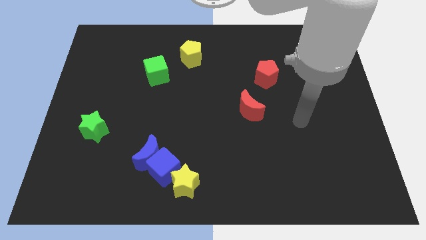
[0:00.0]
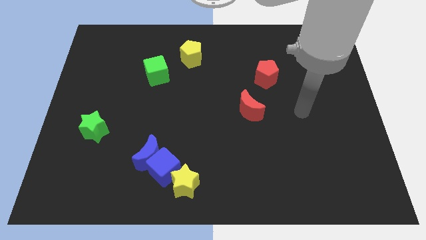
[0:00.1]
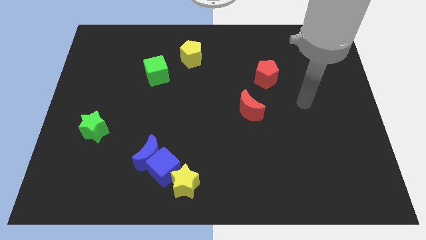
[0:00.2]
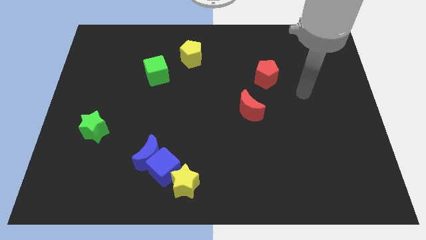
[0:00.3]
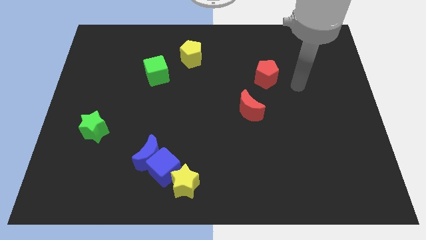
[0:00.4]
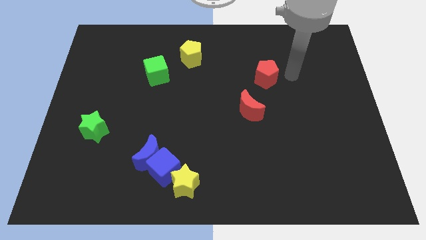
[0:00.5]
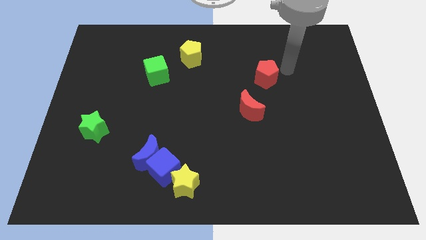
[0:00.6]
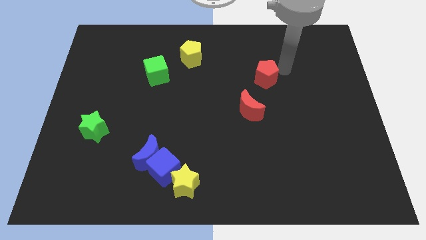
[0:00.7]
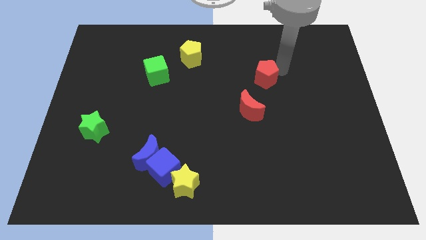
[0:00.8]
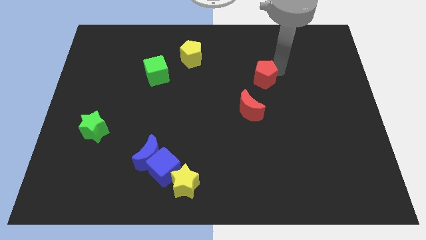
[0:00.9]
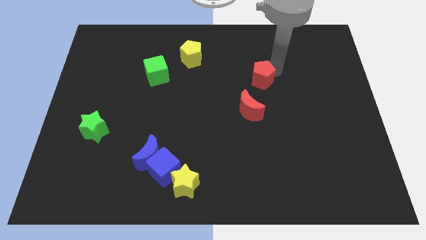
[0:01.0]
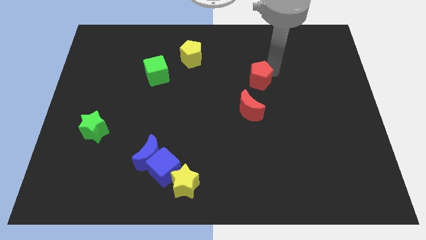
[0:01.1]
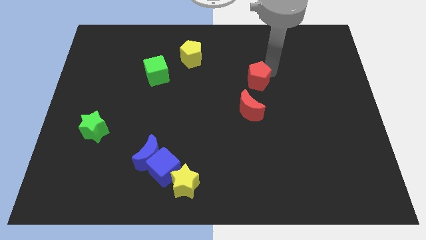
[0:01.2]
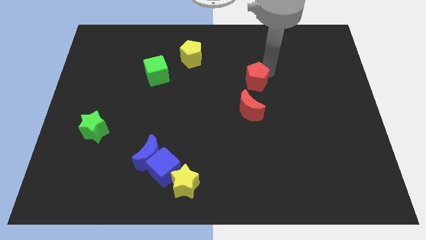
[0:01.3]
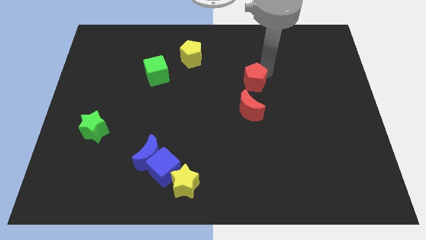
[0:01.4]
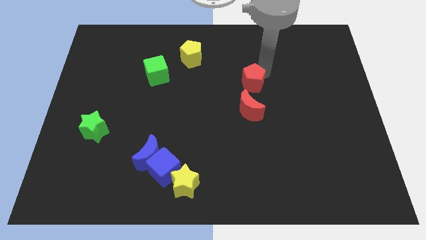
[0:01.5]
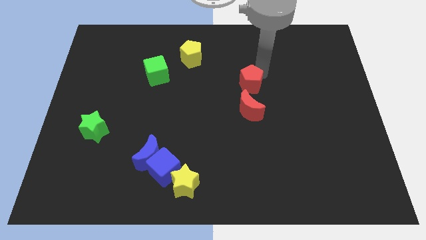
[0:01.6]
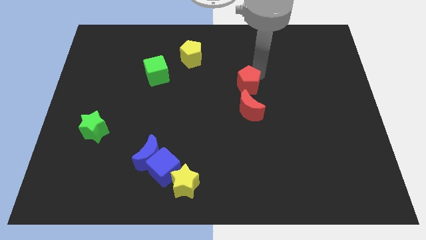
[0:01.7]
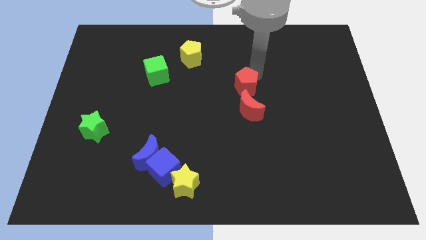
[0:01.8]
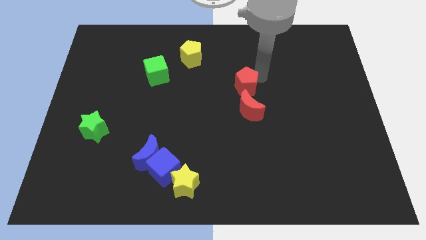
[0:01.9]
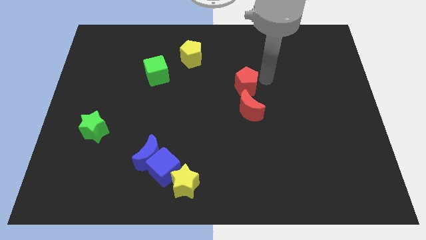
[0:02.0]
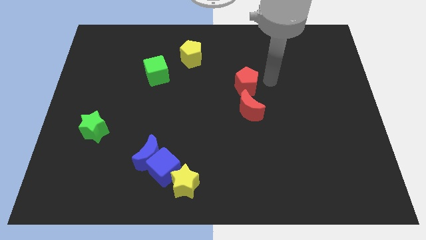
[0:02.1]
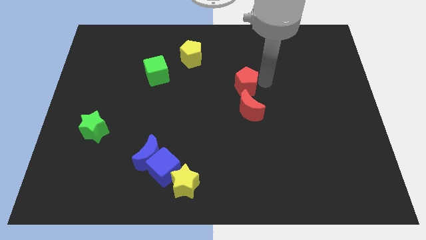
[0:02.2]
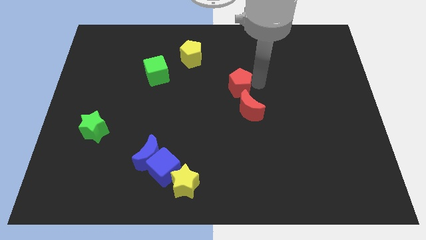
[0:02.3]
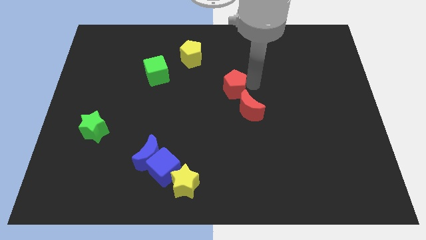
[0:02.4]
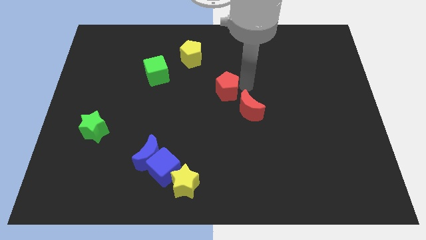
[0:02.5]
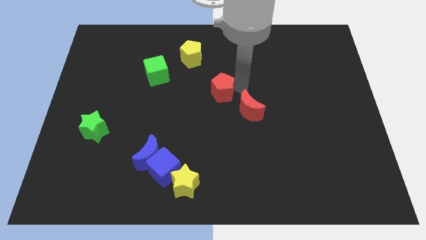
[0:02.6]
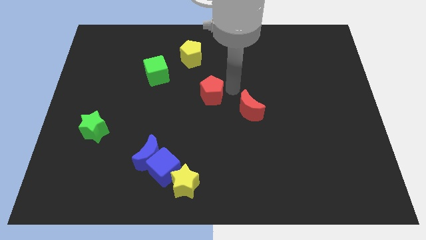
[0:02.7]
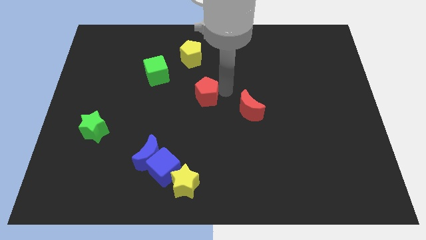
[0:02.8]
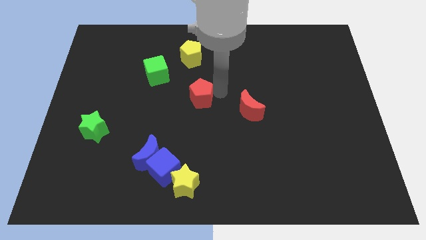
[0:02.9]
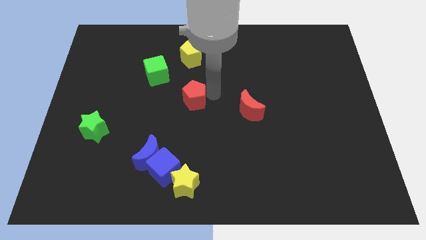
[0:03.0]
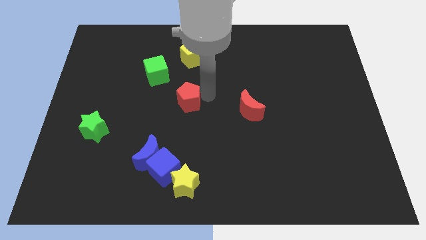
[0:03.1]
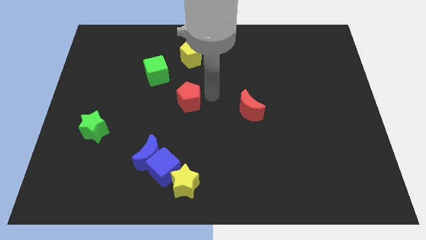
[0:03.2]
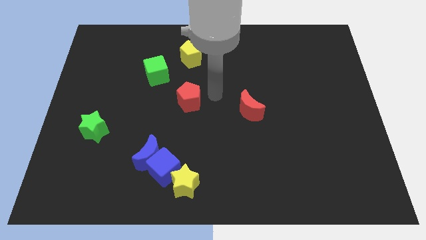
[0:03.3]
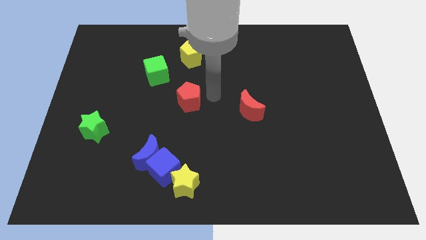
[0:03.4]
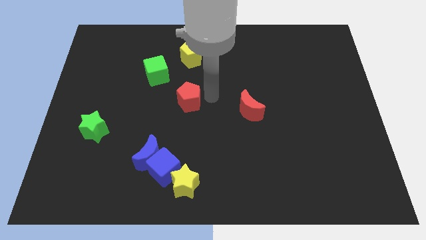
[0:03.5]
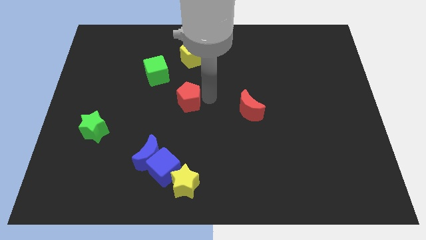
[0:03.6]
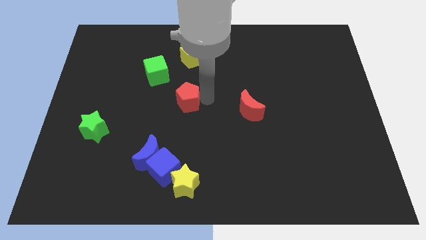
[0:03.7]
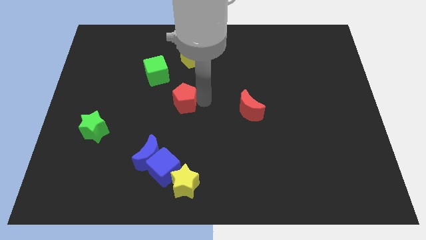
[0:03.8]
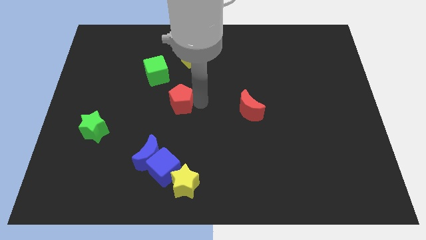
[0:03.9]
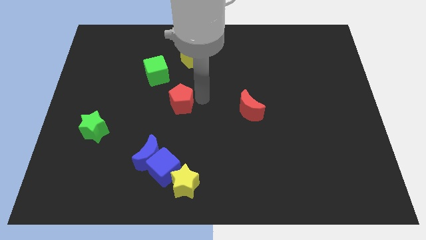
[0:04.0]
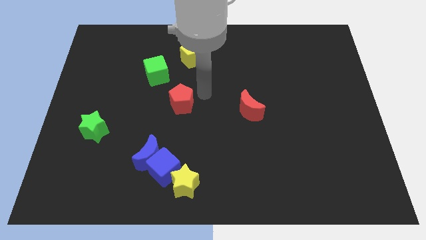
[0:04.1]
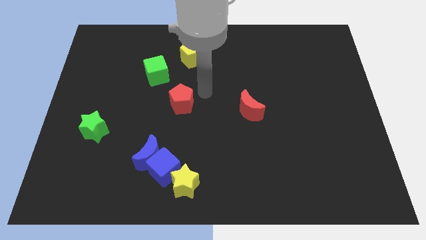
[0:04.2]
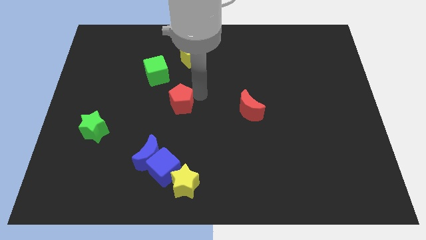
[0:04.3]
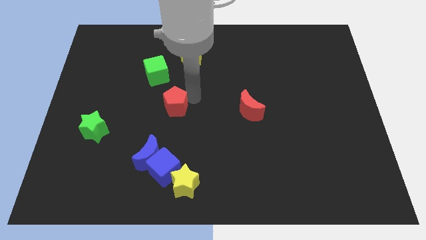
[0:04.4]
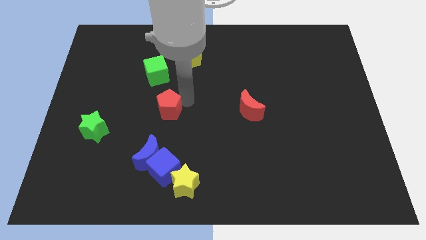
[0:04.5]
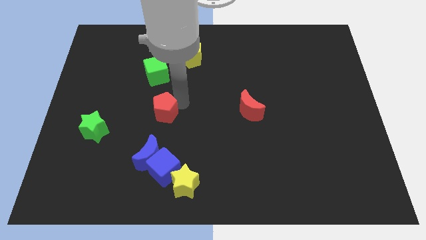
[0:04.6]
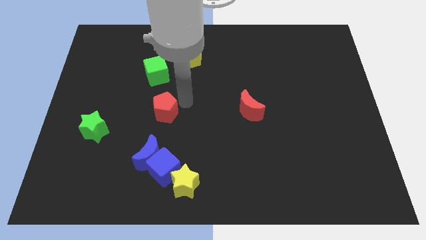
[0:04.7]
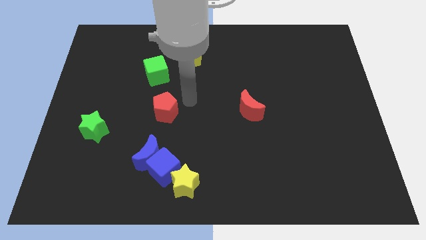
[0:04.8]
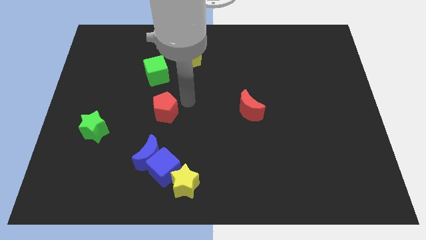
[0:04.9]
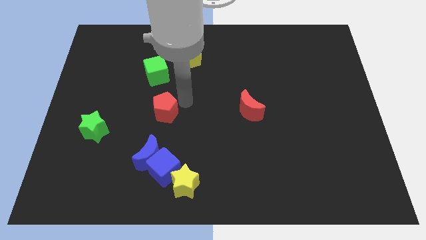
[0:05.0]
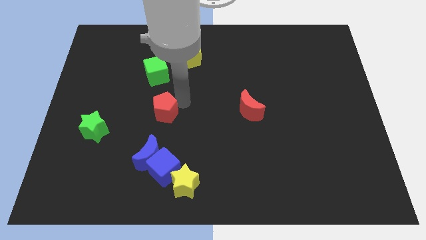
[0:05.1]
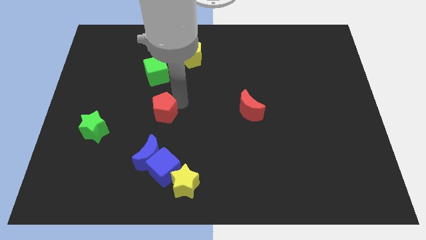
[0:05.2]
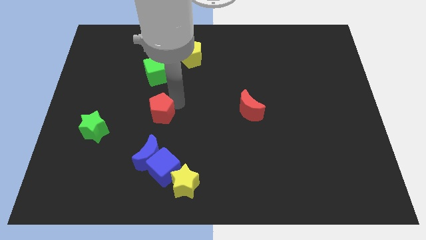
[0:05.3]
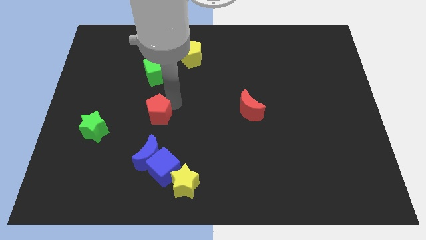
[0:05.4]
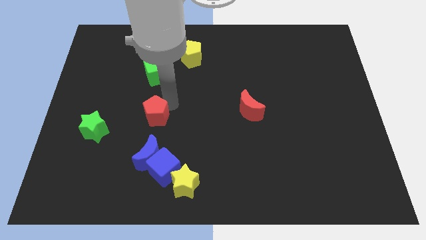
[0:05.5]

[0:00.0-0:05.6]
move the red pentagon just right of the green star

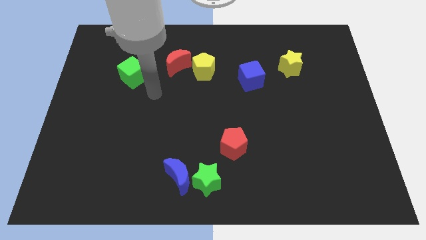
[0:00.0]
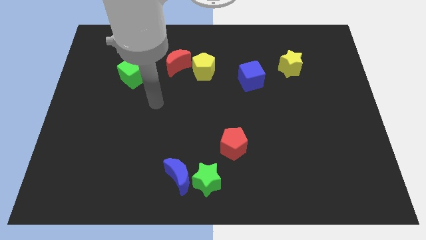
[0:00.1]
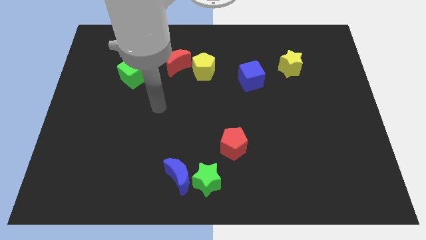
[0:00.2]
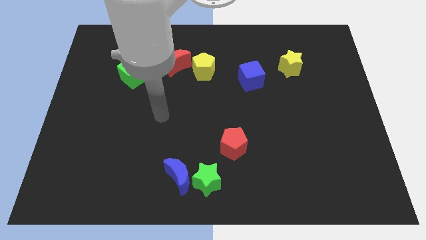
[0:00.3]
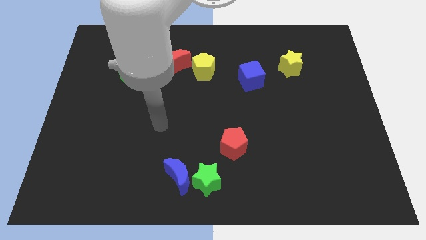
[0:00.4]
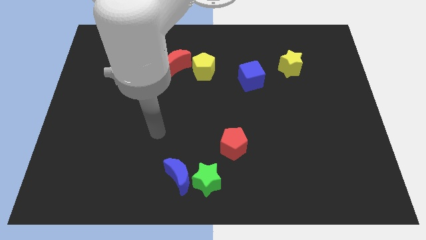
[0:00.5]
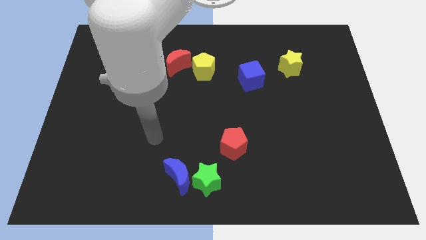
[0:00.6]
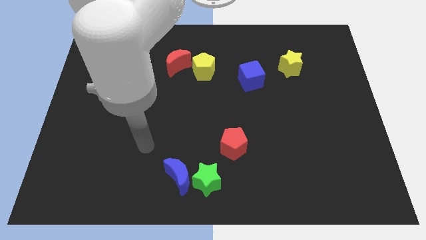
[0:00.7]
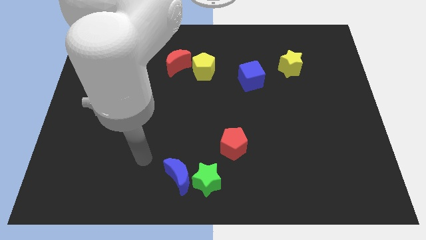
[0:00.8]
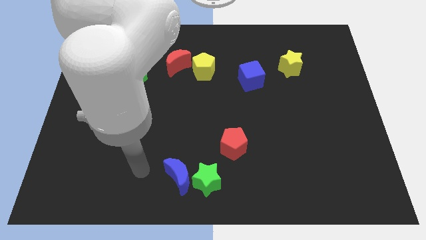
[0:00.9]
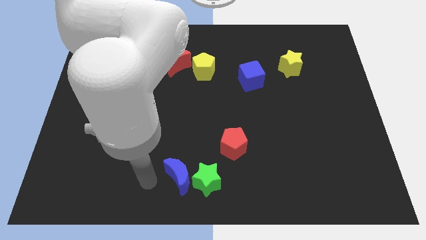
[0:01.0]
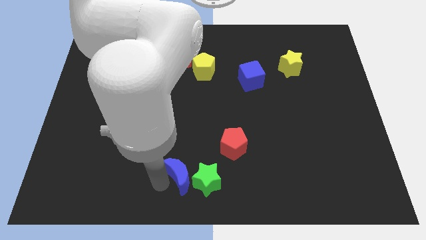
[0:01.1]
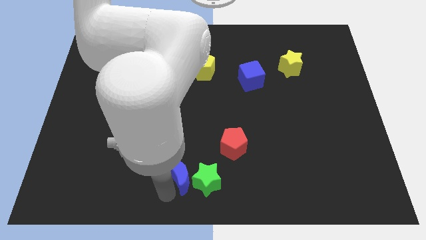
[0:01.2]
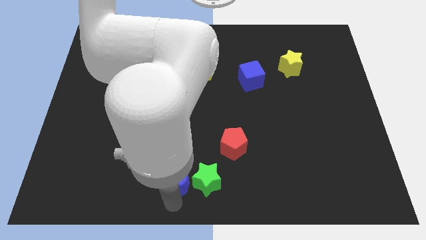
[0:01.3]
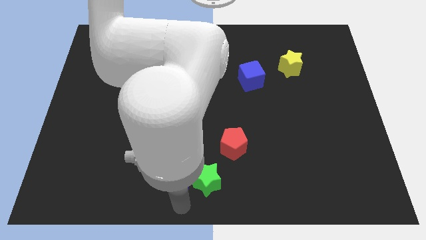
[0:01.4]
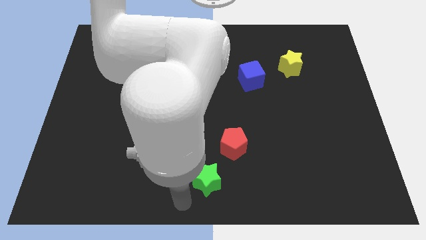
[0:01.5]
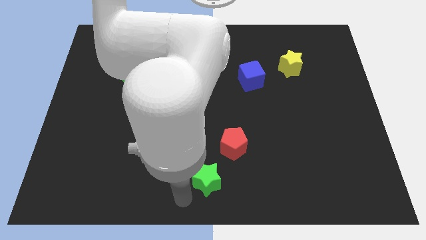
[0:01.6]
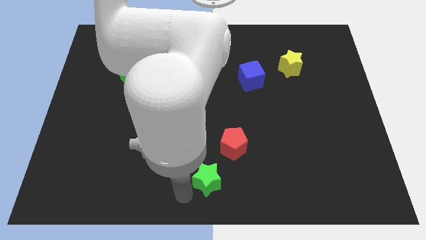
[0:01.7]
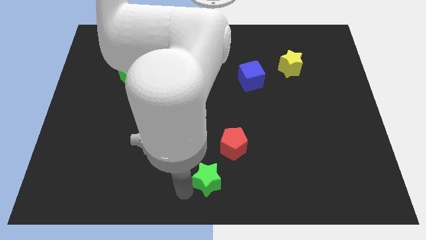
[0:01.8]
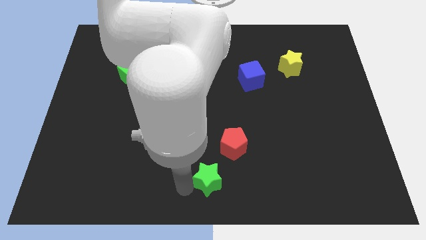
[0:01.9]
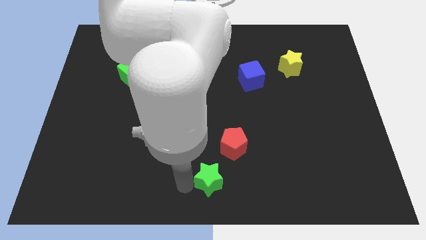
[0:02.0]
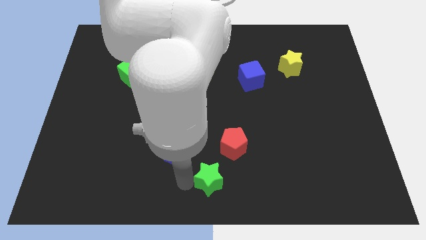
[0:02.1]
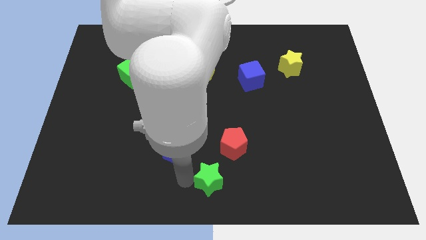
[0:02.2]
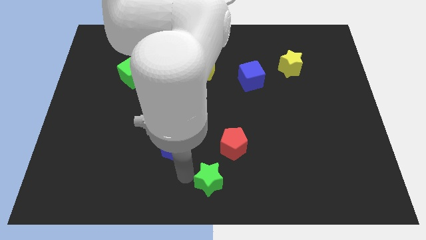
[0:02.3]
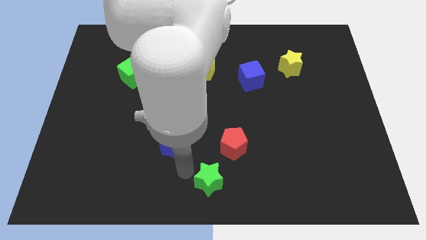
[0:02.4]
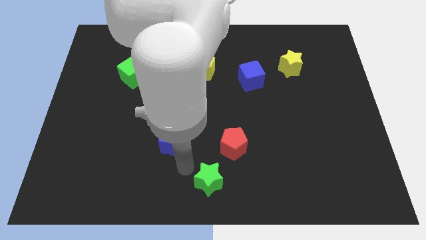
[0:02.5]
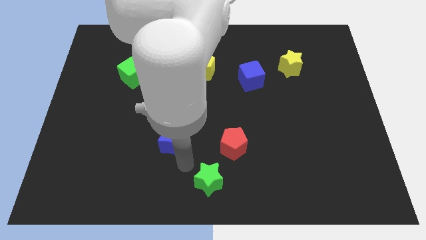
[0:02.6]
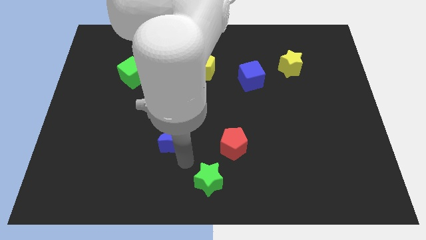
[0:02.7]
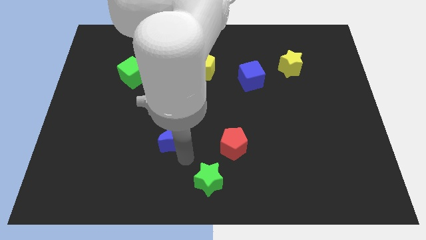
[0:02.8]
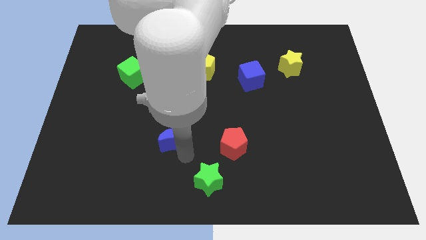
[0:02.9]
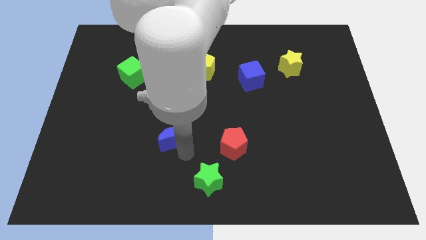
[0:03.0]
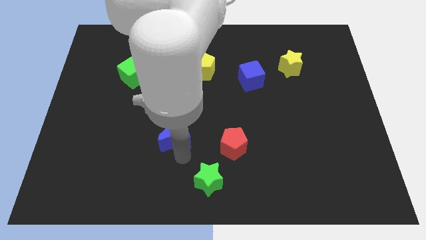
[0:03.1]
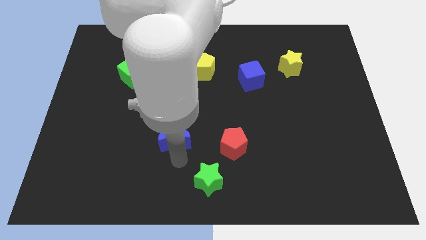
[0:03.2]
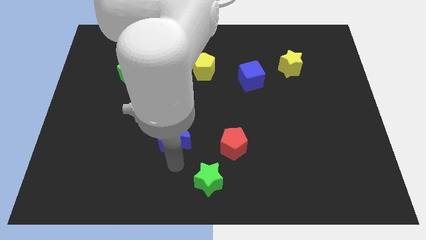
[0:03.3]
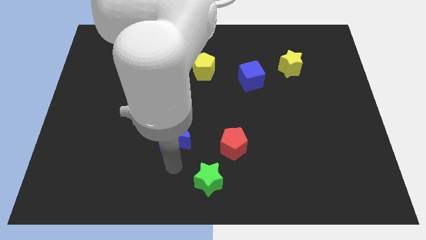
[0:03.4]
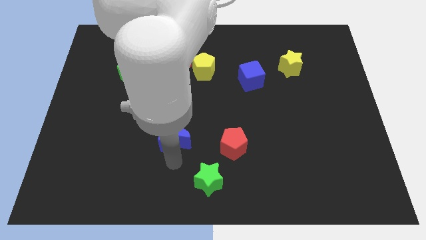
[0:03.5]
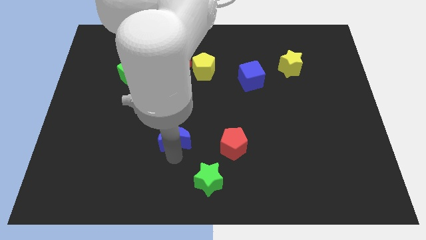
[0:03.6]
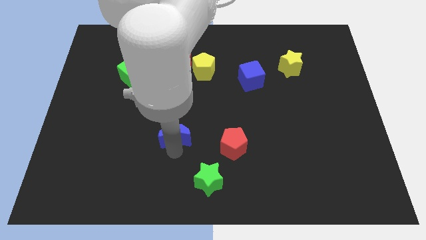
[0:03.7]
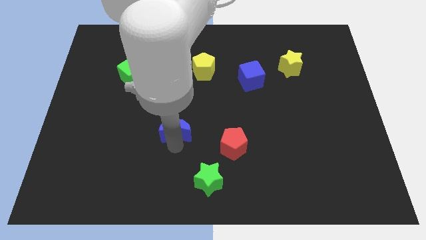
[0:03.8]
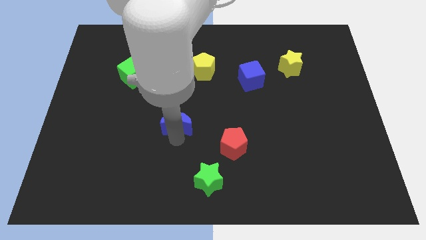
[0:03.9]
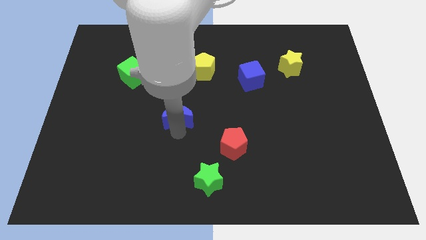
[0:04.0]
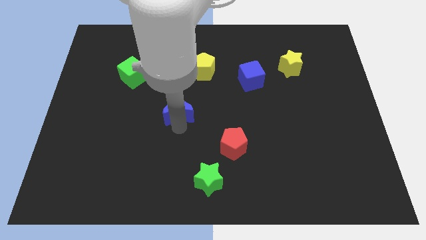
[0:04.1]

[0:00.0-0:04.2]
put the blue moon below the red moon
